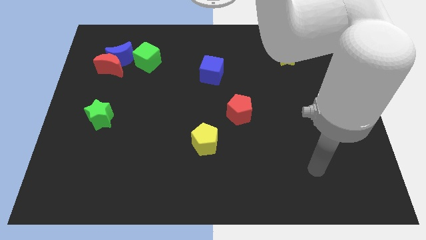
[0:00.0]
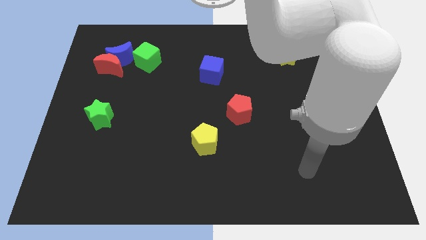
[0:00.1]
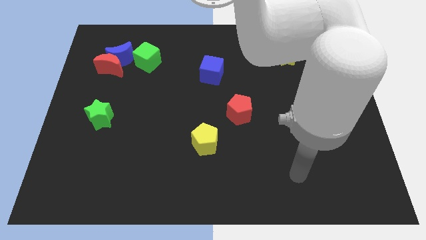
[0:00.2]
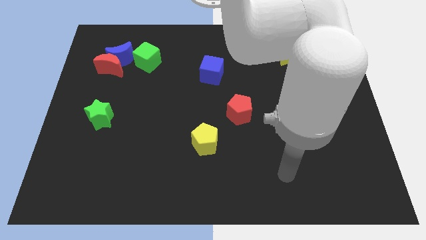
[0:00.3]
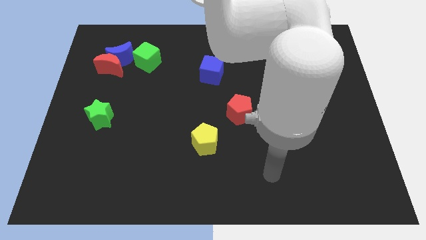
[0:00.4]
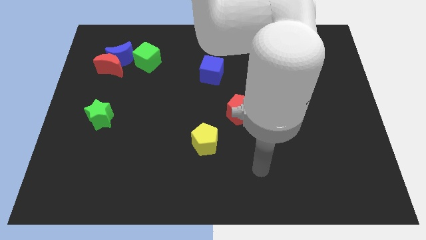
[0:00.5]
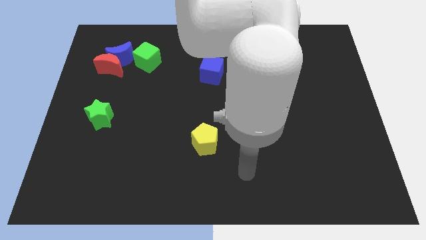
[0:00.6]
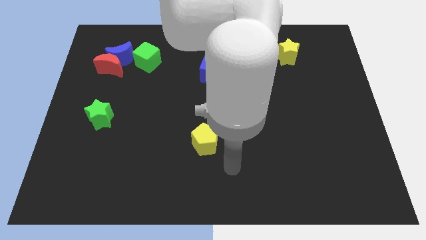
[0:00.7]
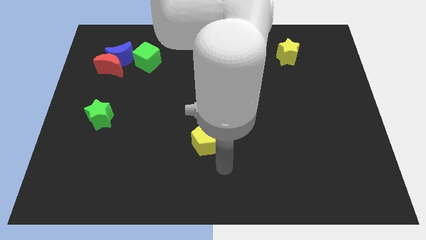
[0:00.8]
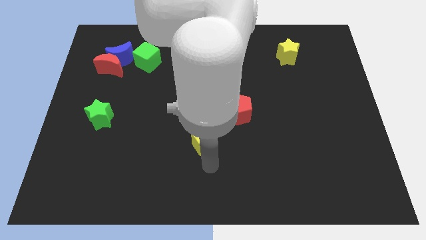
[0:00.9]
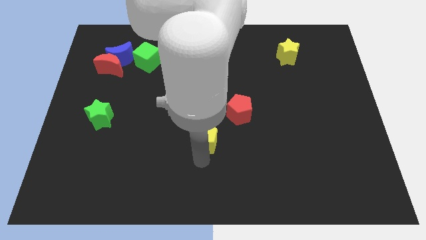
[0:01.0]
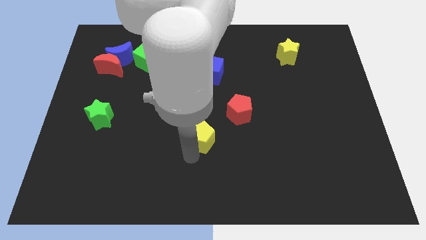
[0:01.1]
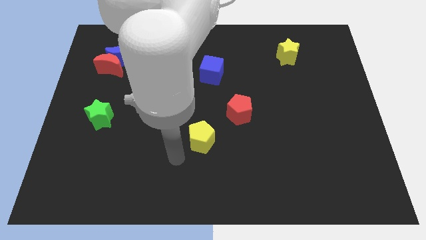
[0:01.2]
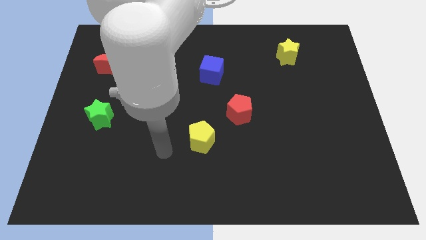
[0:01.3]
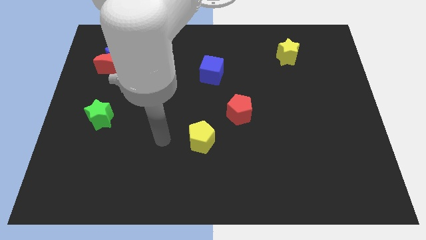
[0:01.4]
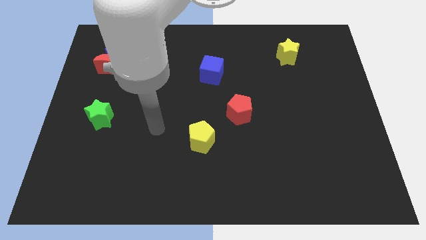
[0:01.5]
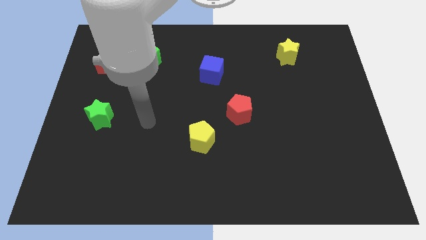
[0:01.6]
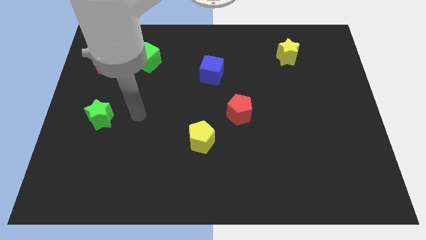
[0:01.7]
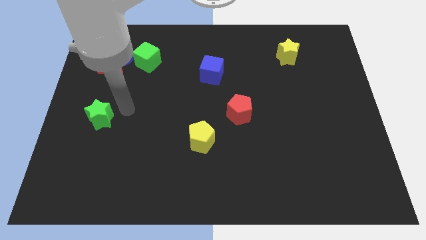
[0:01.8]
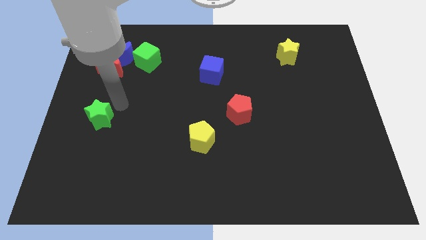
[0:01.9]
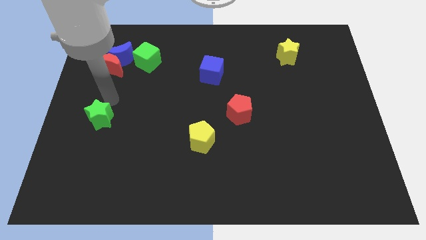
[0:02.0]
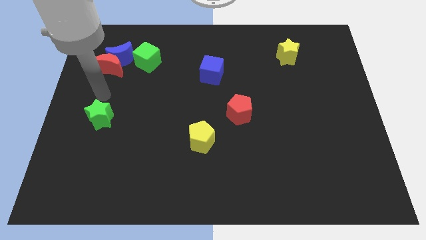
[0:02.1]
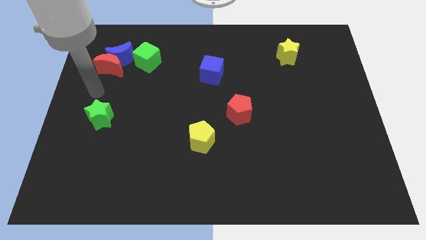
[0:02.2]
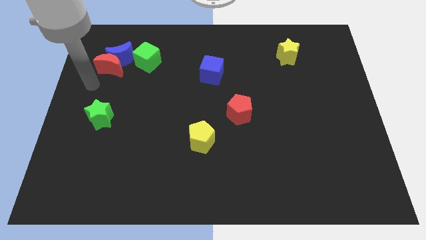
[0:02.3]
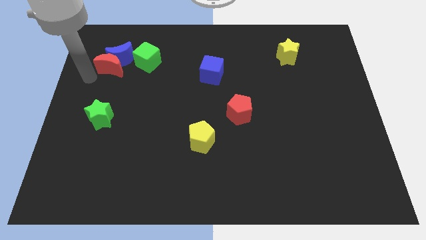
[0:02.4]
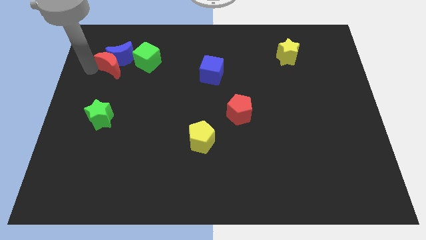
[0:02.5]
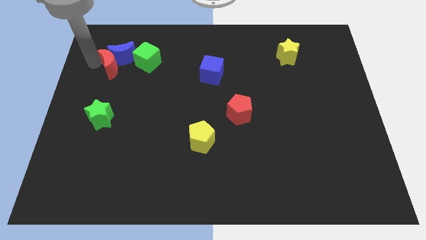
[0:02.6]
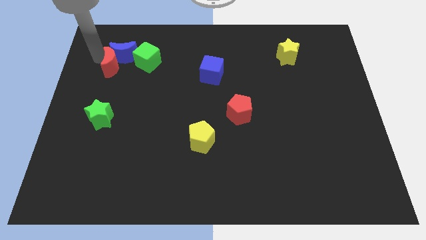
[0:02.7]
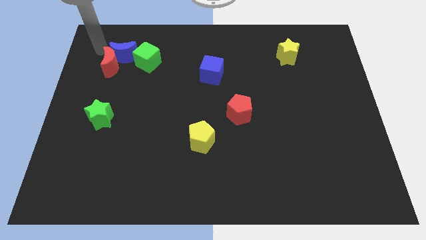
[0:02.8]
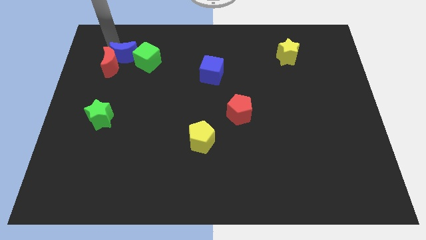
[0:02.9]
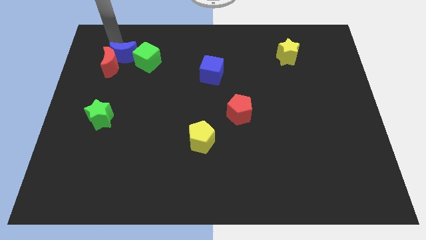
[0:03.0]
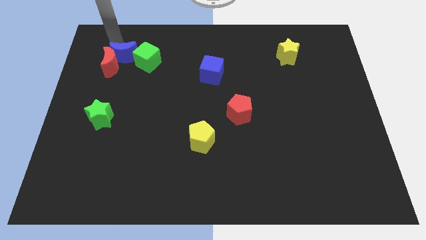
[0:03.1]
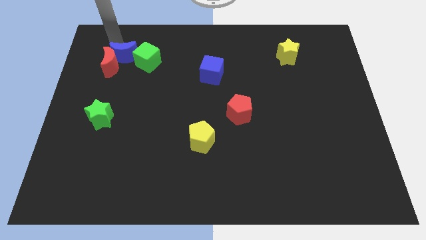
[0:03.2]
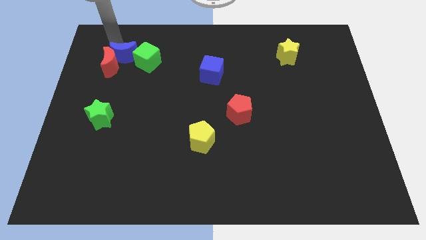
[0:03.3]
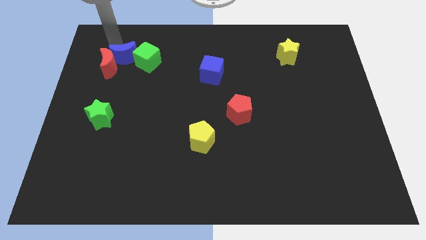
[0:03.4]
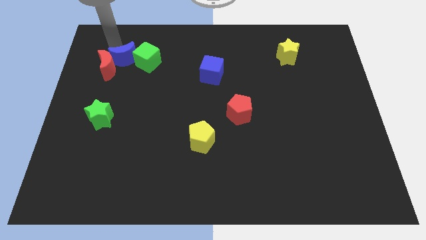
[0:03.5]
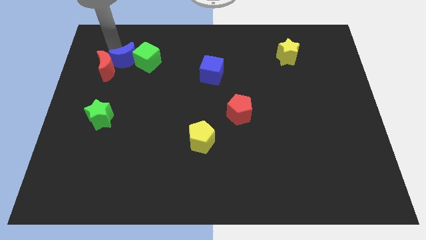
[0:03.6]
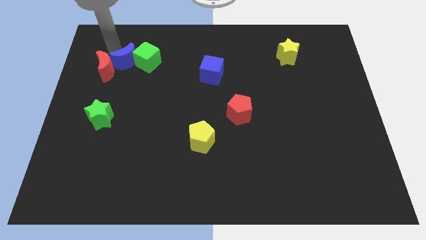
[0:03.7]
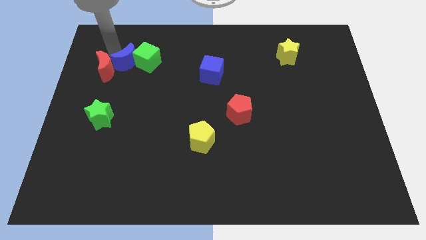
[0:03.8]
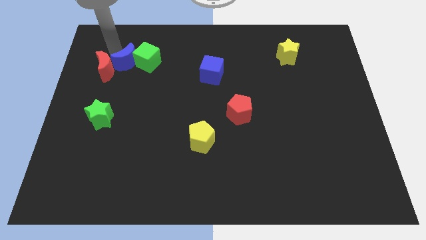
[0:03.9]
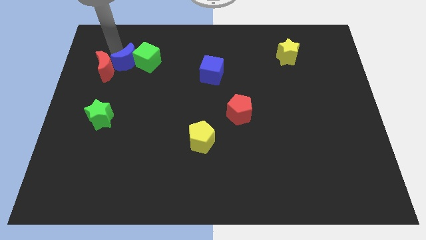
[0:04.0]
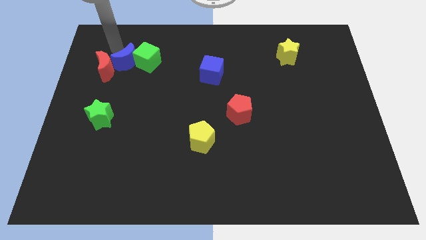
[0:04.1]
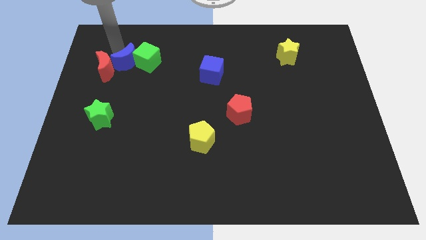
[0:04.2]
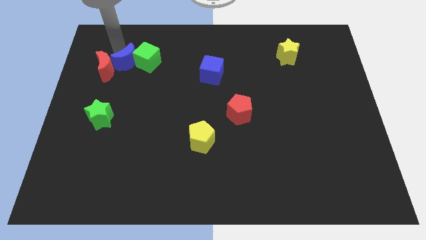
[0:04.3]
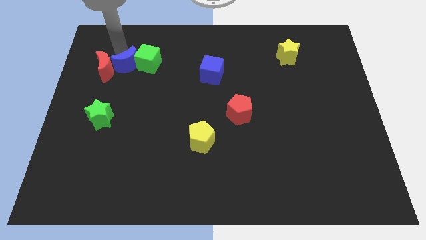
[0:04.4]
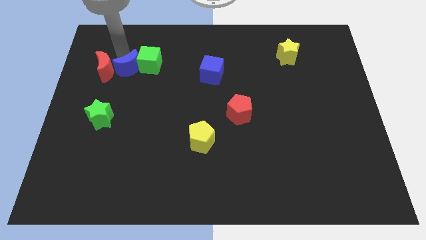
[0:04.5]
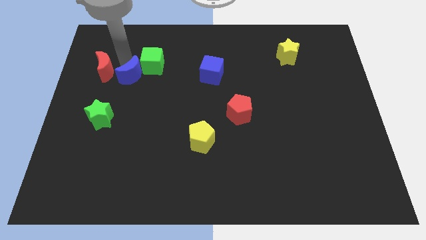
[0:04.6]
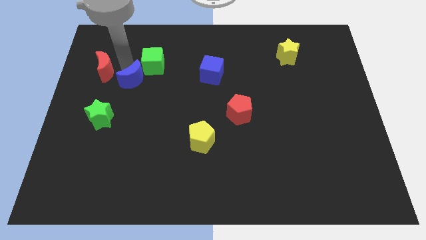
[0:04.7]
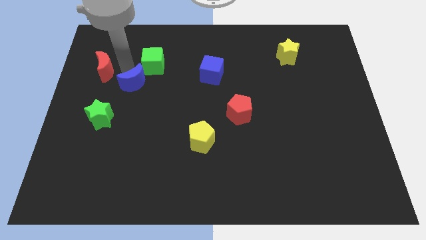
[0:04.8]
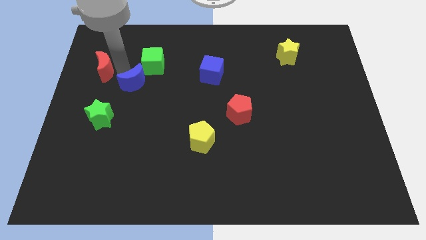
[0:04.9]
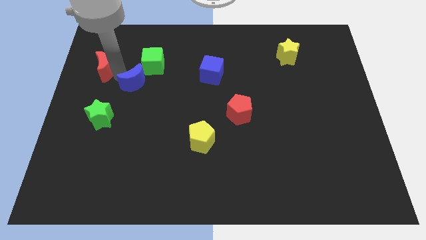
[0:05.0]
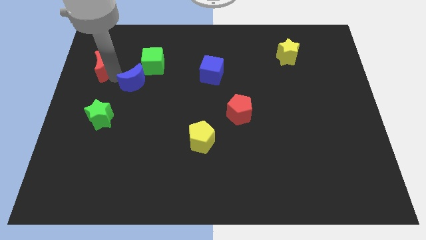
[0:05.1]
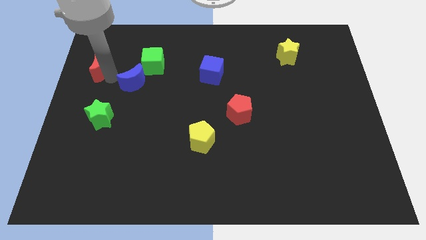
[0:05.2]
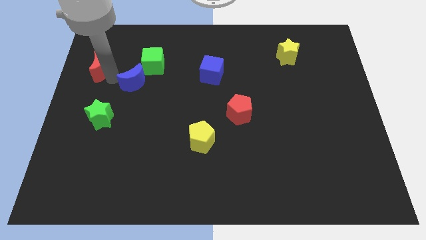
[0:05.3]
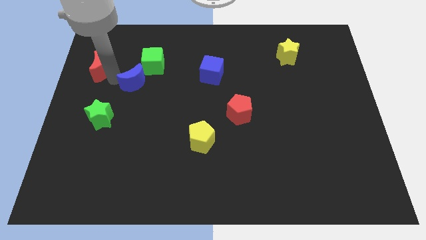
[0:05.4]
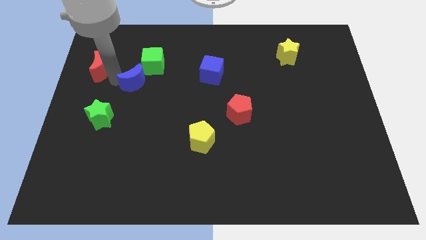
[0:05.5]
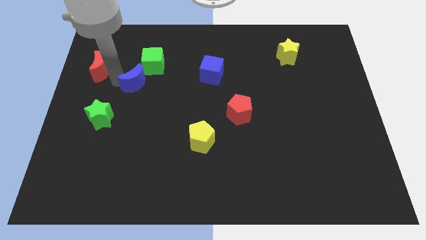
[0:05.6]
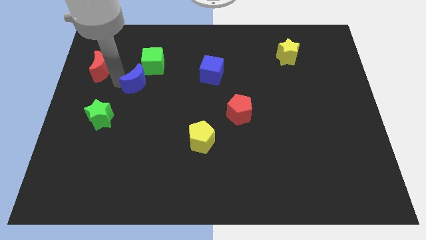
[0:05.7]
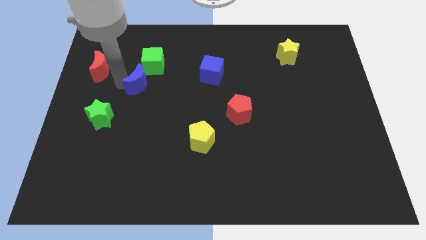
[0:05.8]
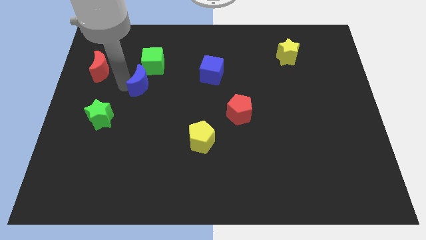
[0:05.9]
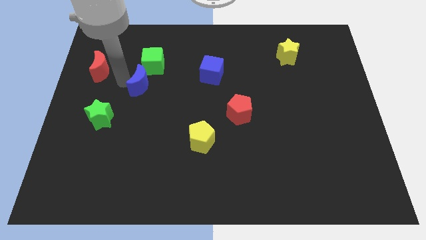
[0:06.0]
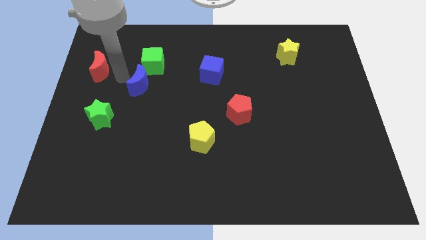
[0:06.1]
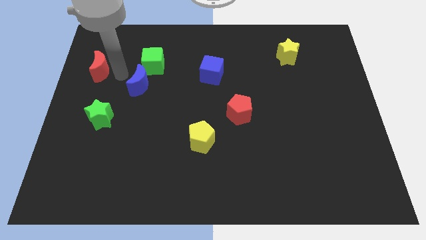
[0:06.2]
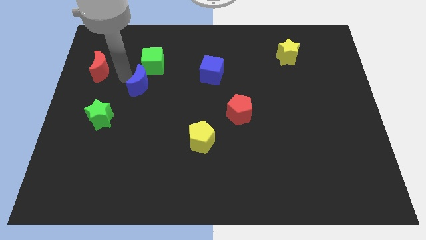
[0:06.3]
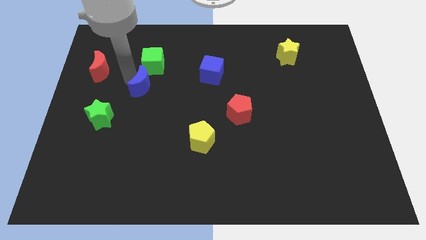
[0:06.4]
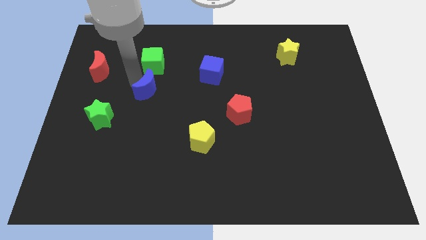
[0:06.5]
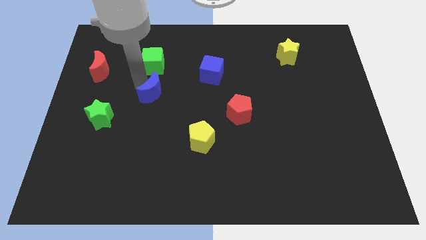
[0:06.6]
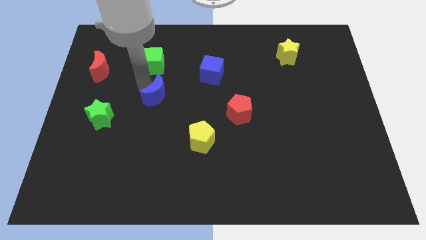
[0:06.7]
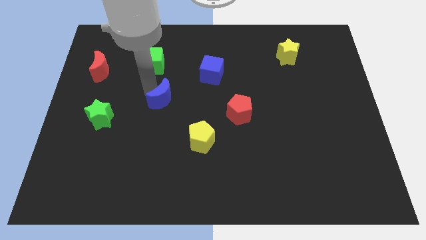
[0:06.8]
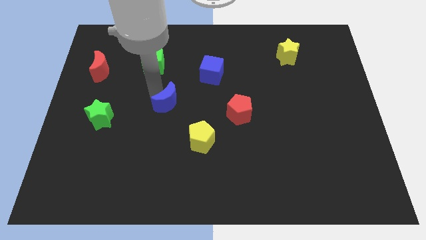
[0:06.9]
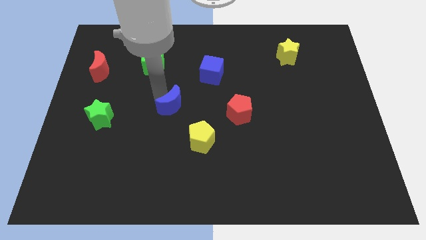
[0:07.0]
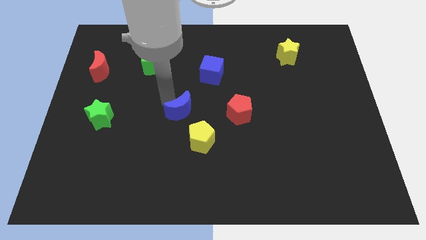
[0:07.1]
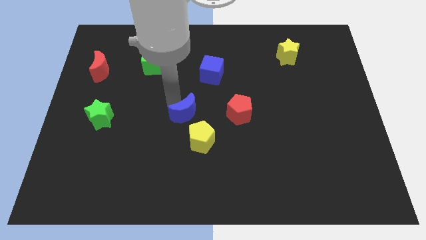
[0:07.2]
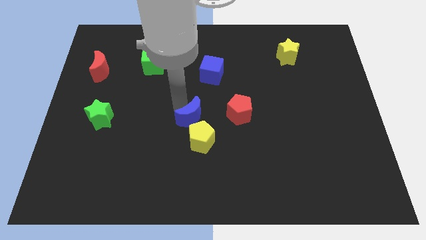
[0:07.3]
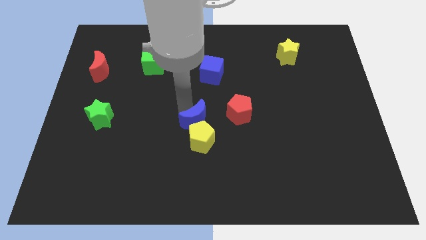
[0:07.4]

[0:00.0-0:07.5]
push the blue moon towards the yellow pentagon
